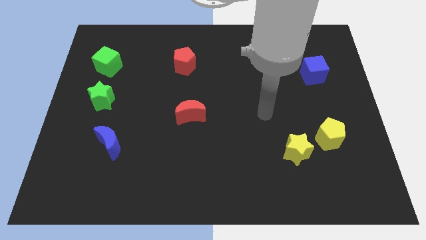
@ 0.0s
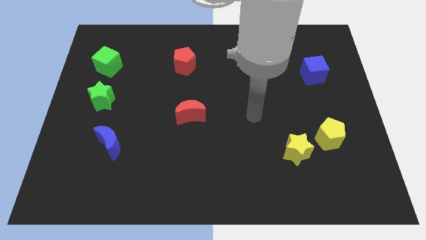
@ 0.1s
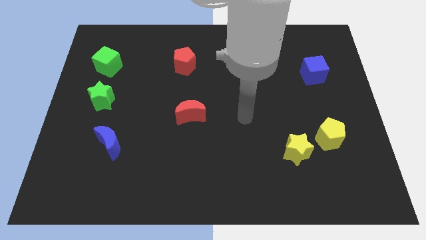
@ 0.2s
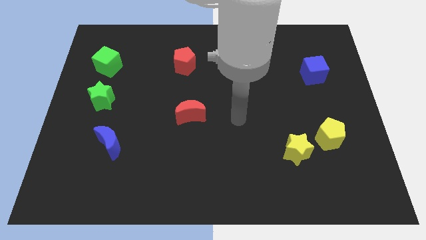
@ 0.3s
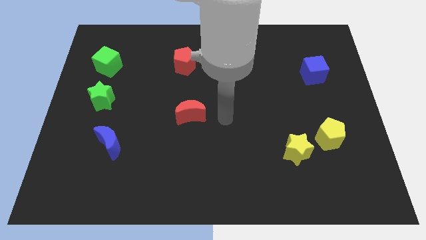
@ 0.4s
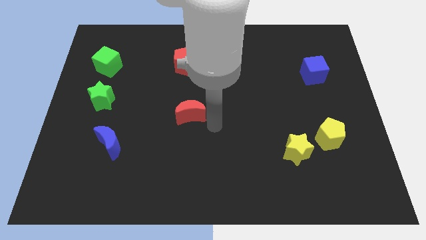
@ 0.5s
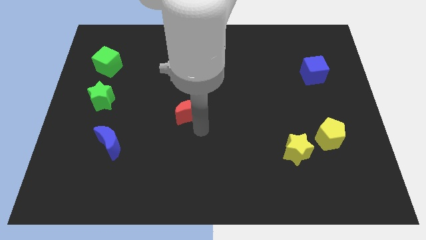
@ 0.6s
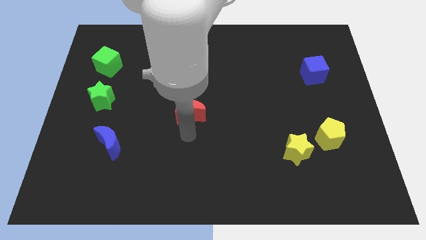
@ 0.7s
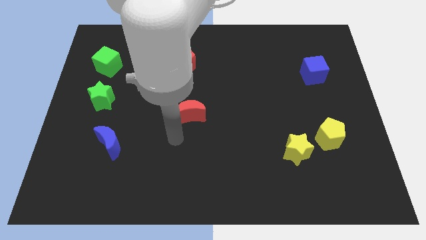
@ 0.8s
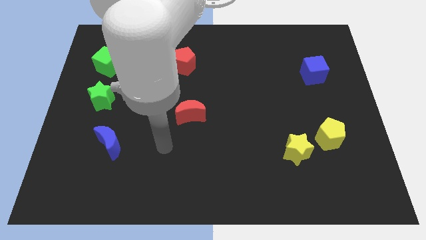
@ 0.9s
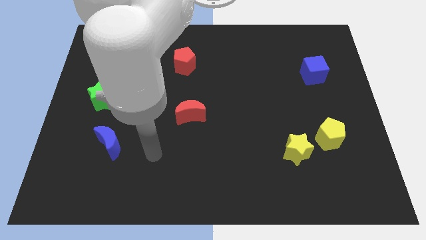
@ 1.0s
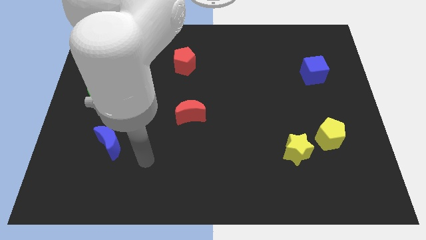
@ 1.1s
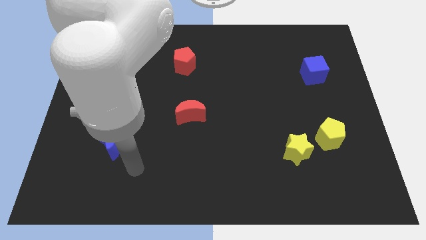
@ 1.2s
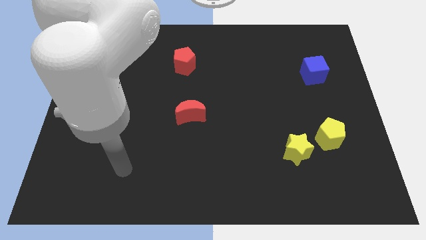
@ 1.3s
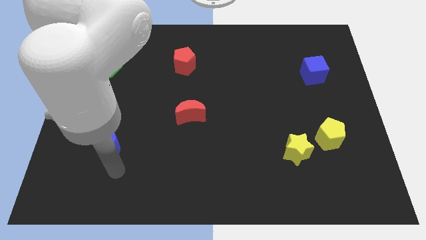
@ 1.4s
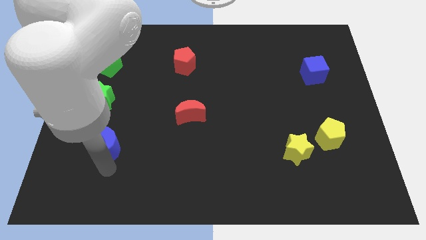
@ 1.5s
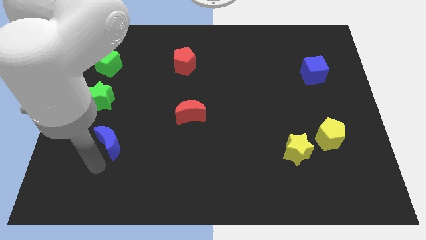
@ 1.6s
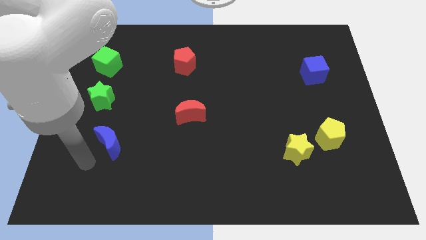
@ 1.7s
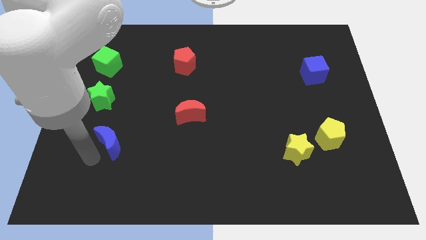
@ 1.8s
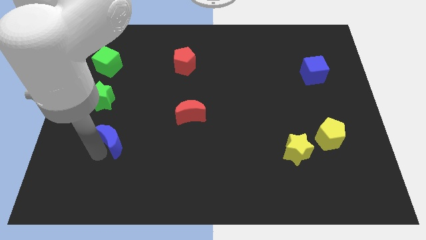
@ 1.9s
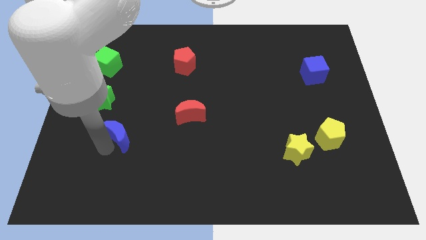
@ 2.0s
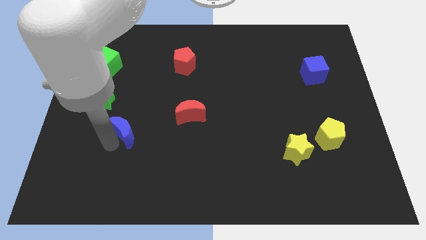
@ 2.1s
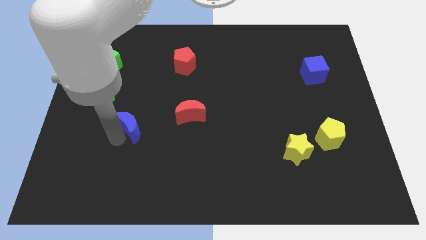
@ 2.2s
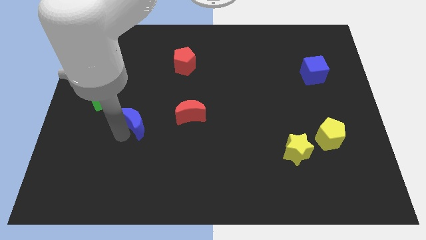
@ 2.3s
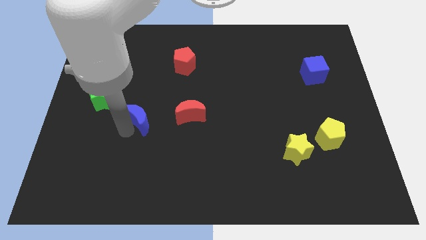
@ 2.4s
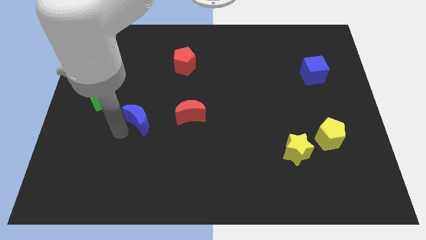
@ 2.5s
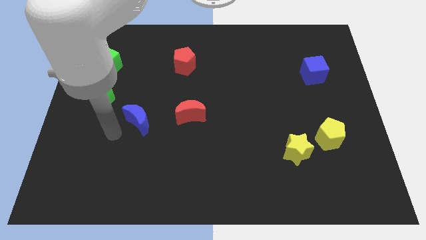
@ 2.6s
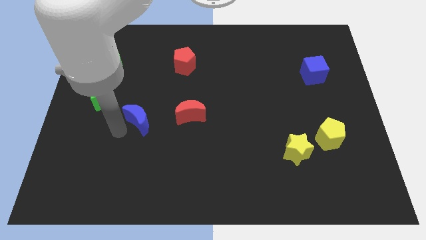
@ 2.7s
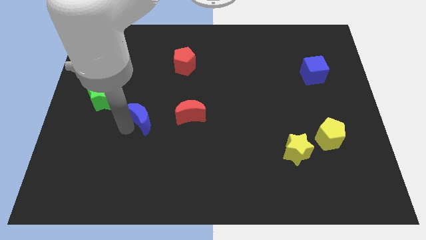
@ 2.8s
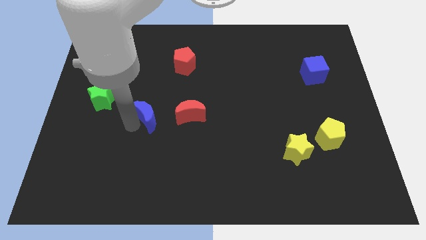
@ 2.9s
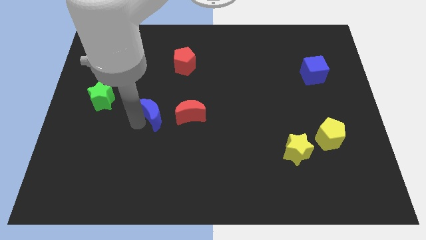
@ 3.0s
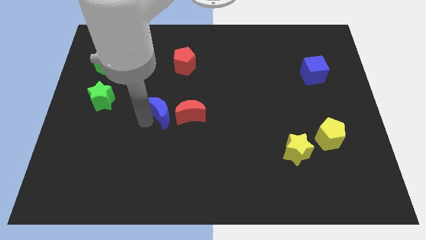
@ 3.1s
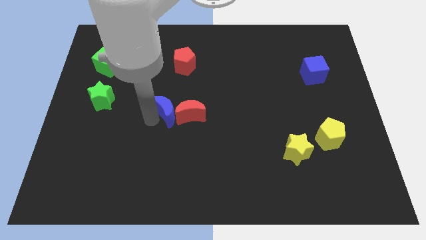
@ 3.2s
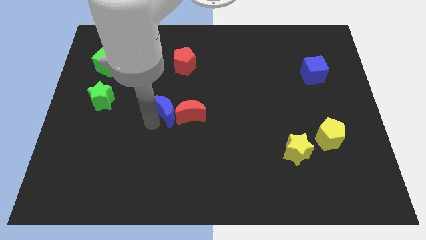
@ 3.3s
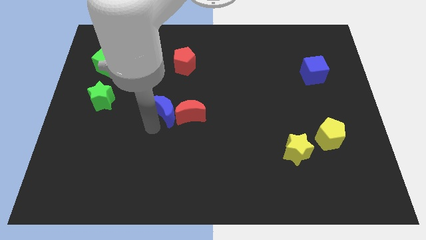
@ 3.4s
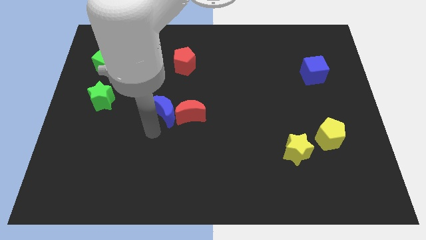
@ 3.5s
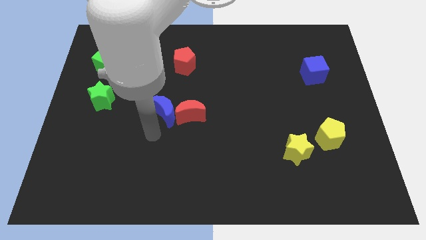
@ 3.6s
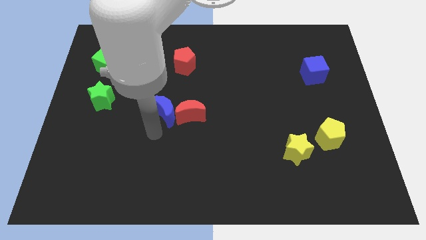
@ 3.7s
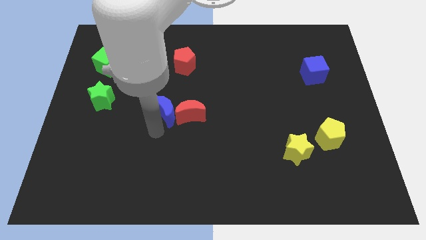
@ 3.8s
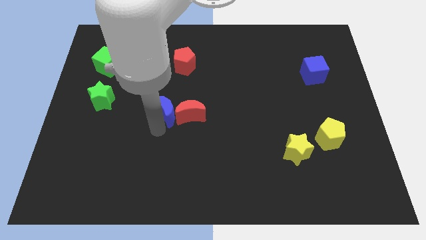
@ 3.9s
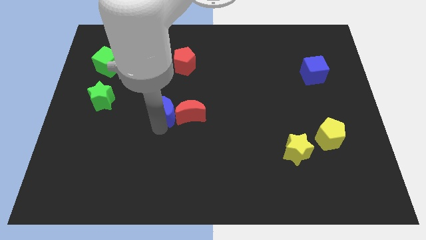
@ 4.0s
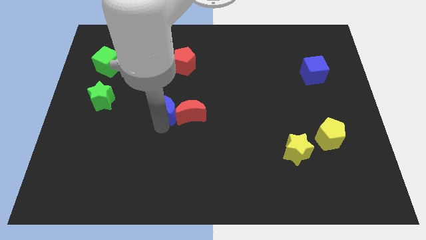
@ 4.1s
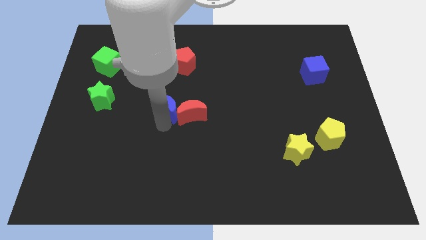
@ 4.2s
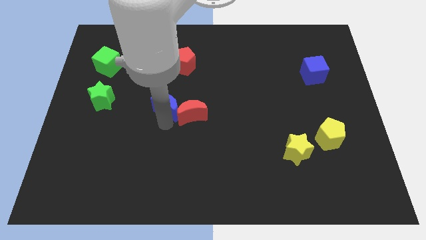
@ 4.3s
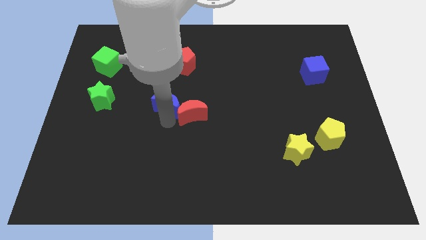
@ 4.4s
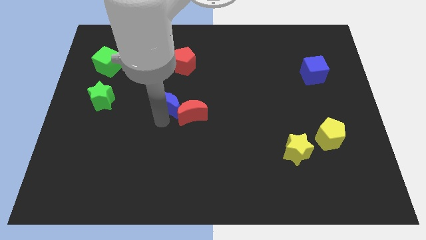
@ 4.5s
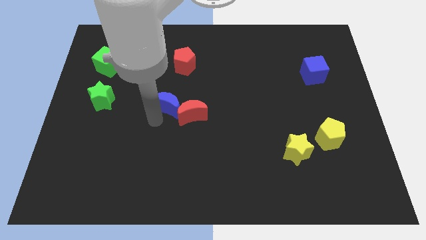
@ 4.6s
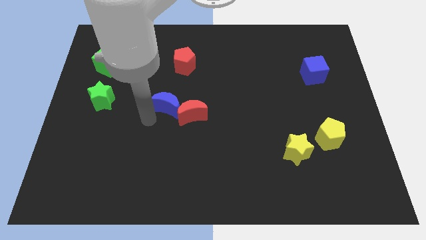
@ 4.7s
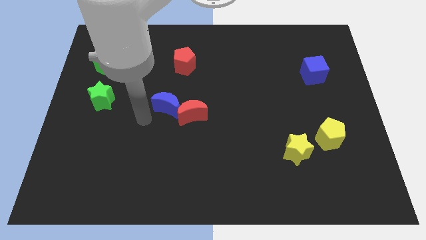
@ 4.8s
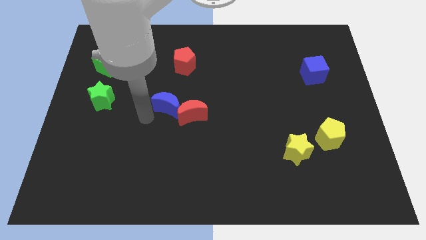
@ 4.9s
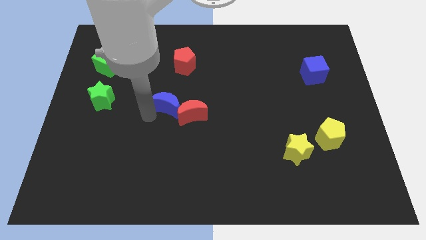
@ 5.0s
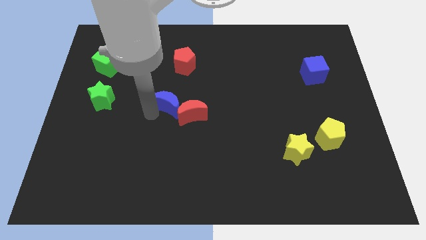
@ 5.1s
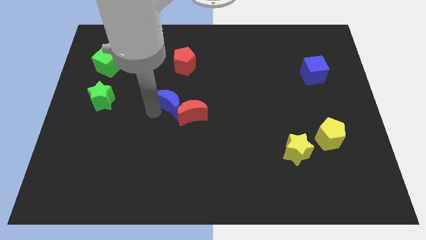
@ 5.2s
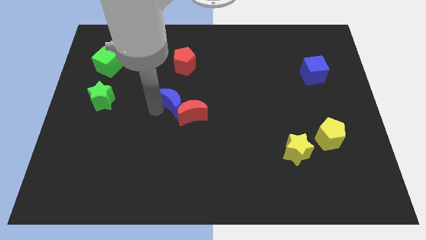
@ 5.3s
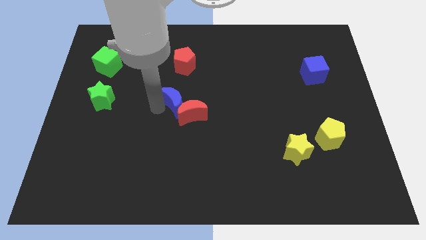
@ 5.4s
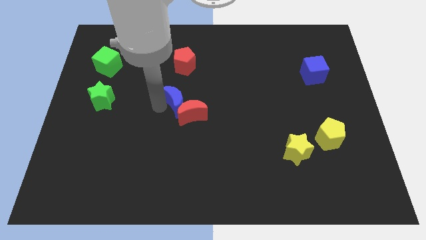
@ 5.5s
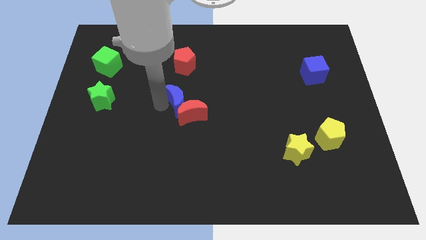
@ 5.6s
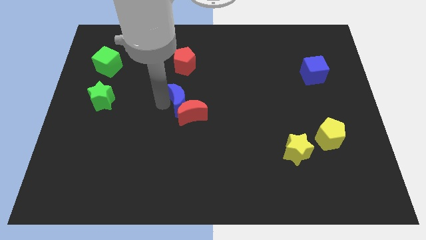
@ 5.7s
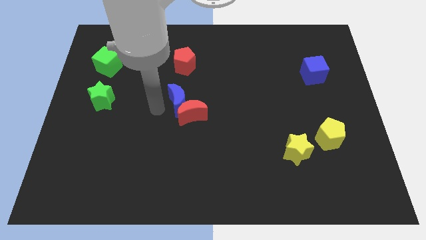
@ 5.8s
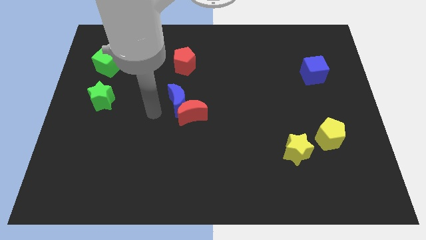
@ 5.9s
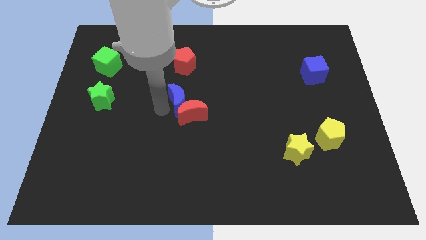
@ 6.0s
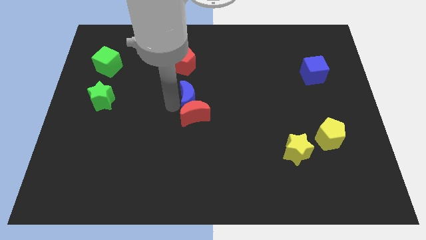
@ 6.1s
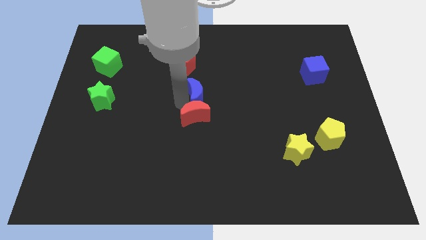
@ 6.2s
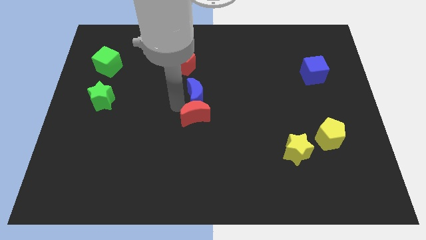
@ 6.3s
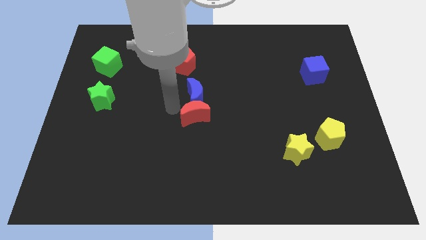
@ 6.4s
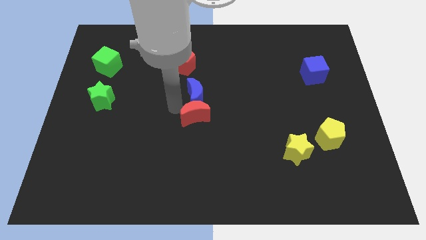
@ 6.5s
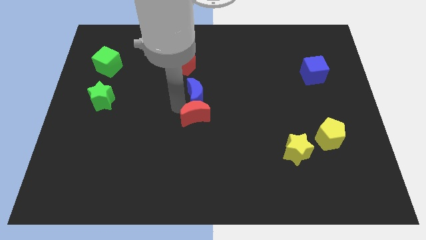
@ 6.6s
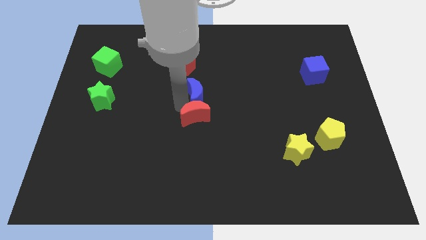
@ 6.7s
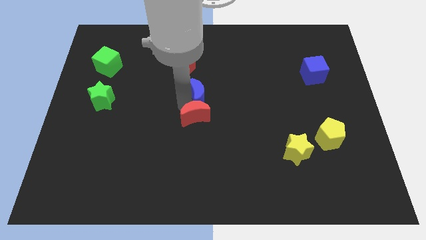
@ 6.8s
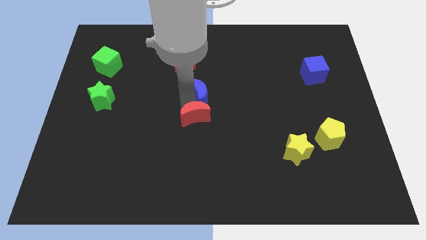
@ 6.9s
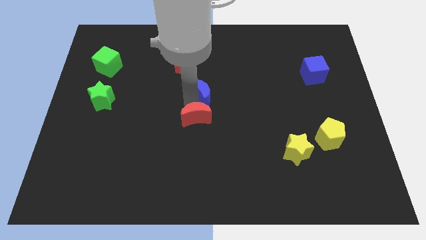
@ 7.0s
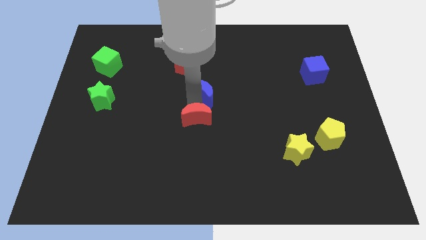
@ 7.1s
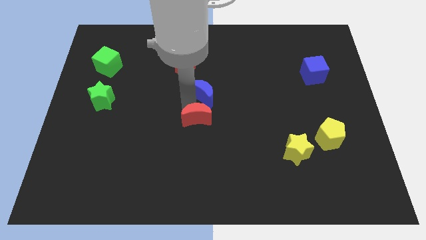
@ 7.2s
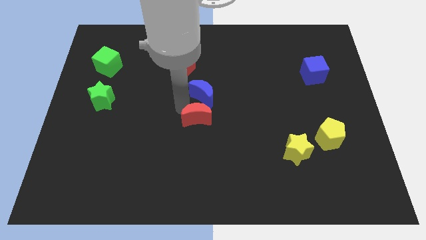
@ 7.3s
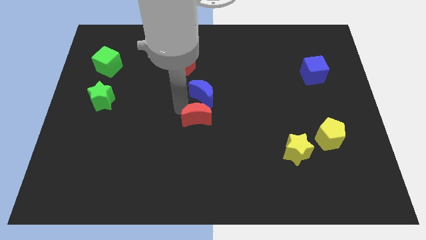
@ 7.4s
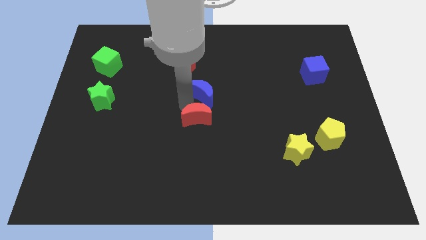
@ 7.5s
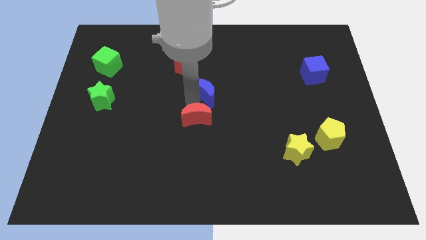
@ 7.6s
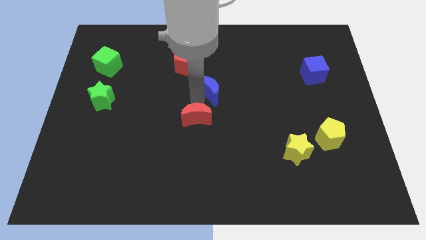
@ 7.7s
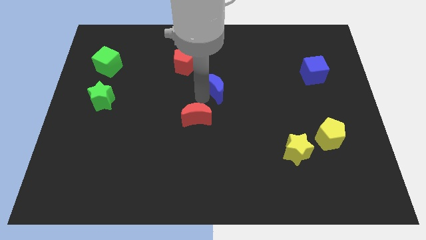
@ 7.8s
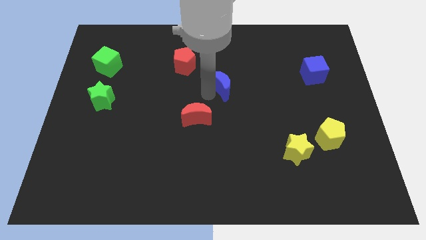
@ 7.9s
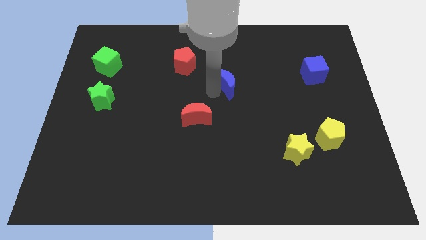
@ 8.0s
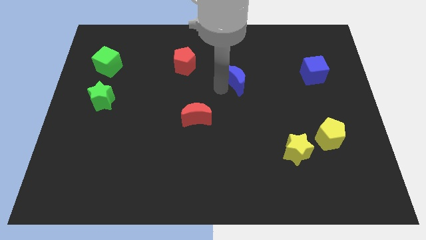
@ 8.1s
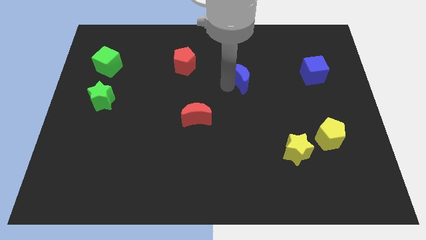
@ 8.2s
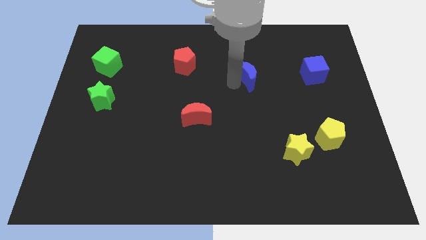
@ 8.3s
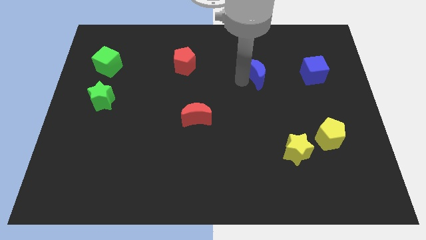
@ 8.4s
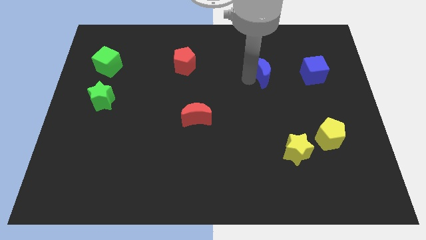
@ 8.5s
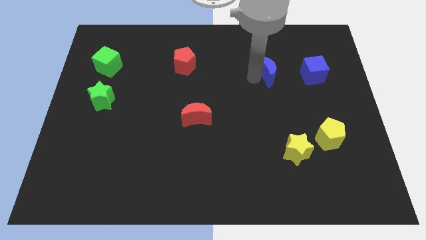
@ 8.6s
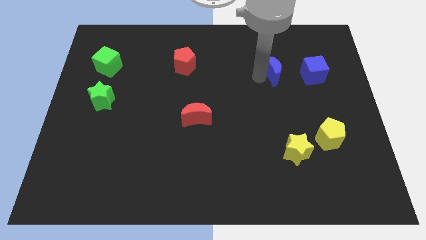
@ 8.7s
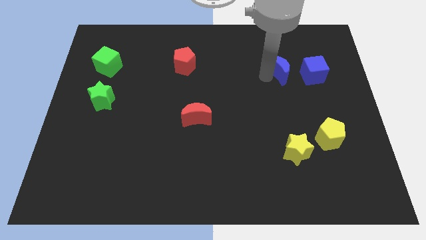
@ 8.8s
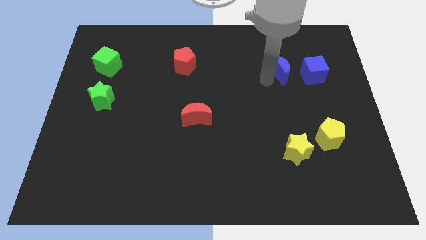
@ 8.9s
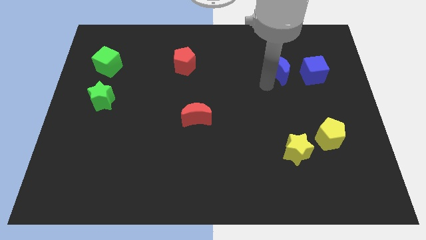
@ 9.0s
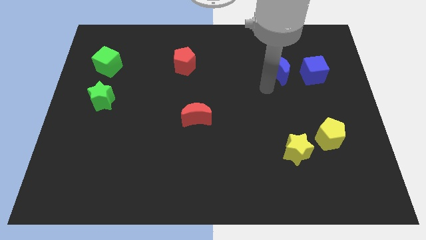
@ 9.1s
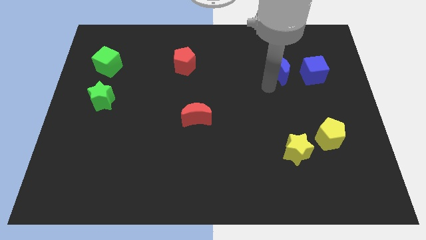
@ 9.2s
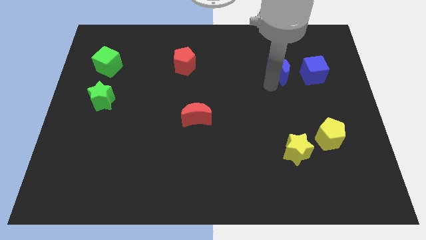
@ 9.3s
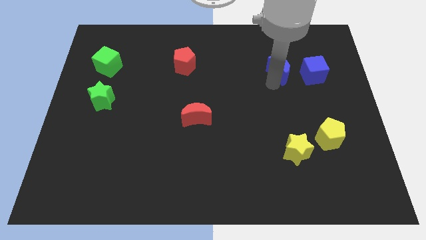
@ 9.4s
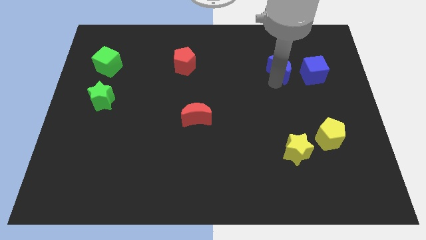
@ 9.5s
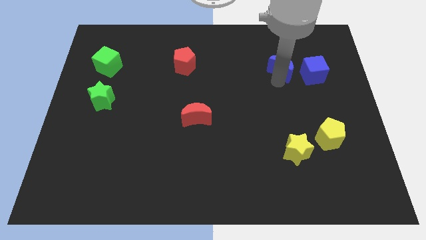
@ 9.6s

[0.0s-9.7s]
push the blue moon to the top left side of the blue cube
